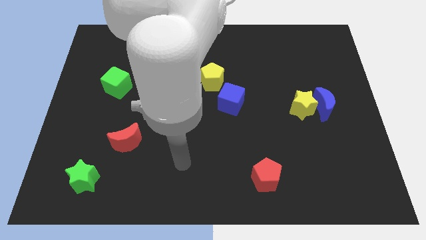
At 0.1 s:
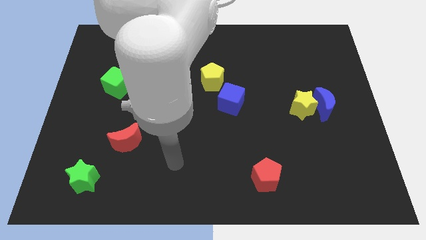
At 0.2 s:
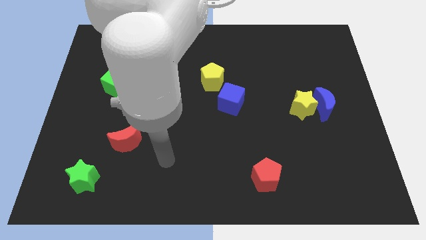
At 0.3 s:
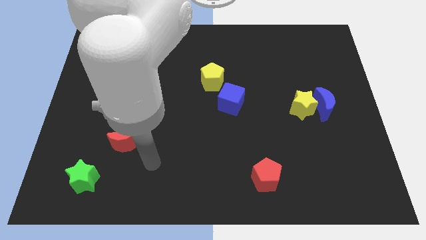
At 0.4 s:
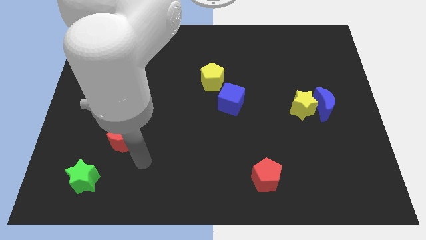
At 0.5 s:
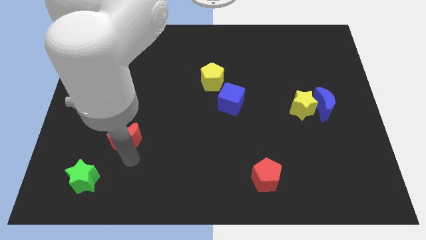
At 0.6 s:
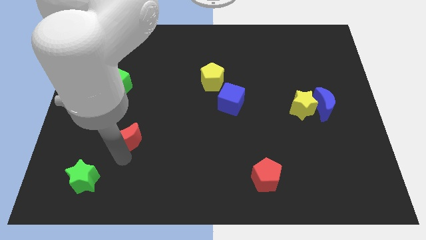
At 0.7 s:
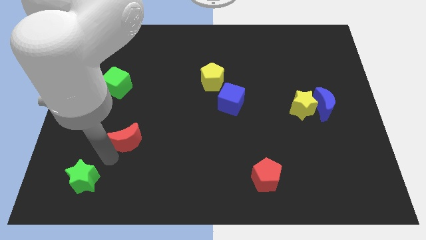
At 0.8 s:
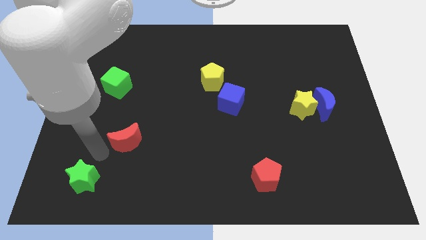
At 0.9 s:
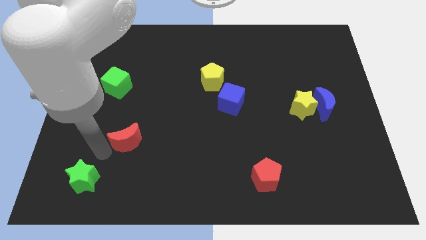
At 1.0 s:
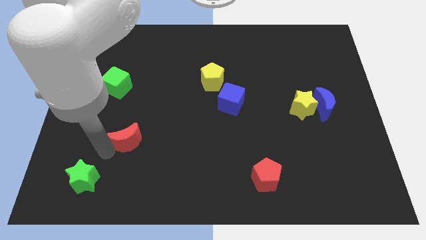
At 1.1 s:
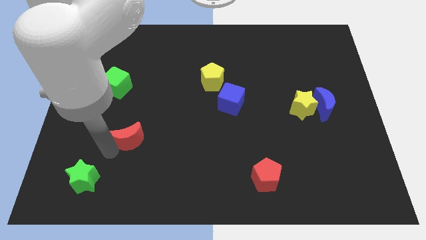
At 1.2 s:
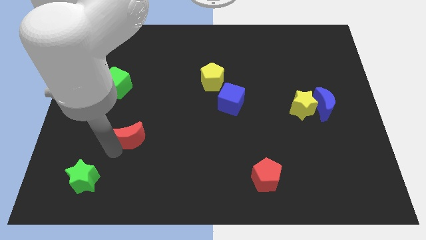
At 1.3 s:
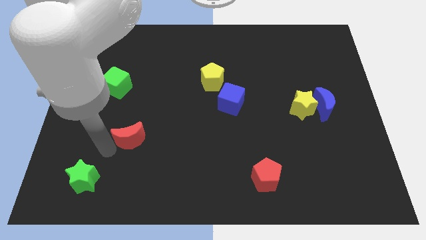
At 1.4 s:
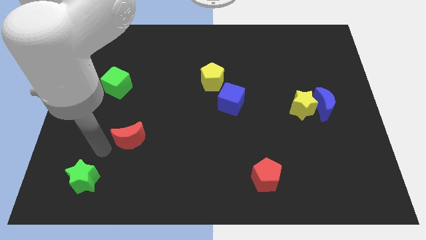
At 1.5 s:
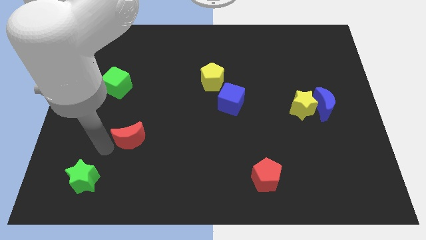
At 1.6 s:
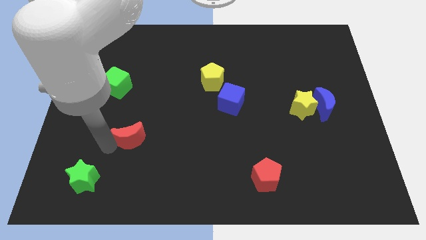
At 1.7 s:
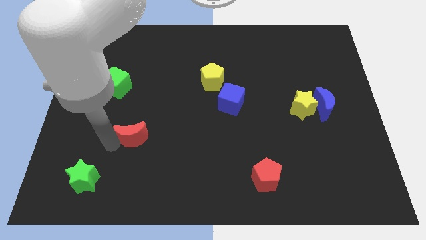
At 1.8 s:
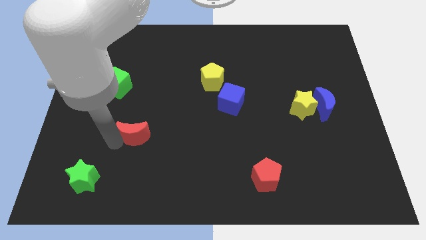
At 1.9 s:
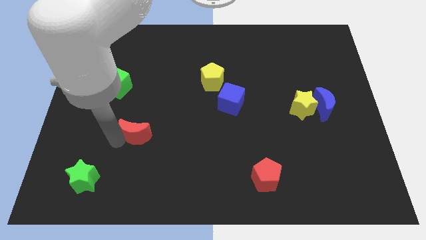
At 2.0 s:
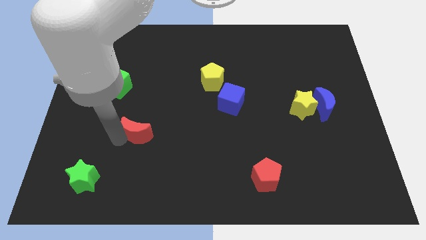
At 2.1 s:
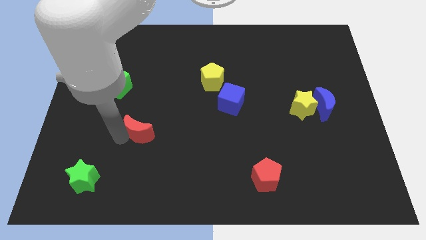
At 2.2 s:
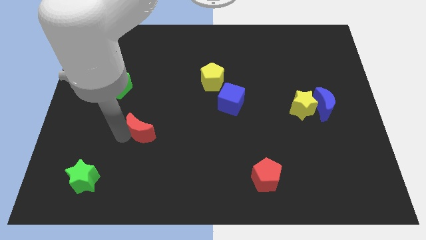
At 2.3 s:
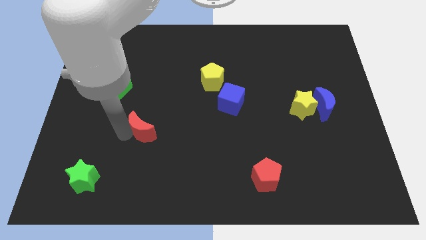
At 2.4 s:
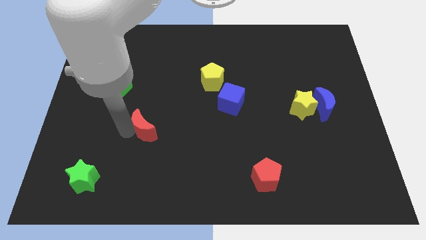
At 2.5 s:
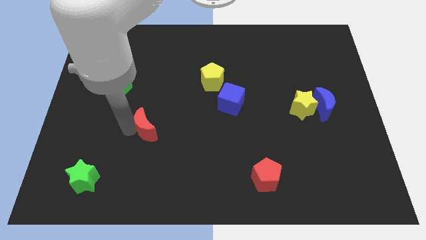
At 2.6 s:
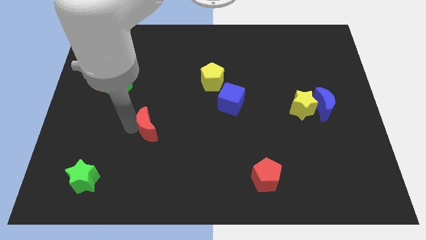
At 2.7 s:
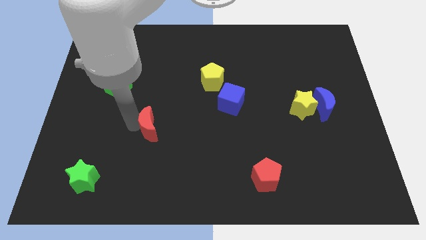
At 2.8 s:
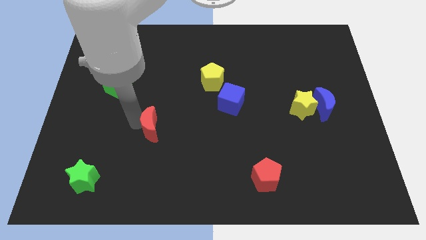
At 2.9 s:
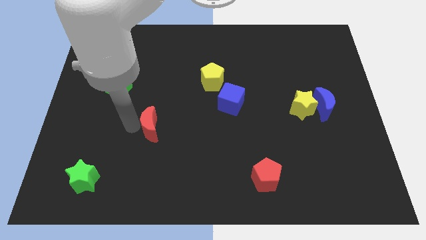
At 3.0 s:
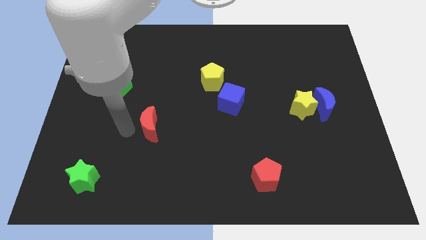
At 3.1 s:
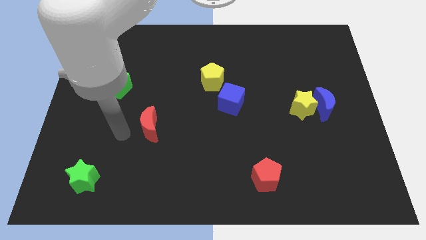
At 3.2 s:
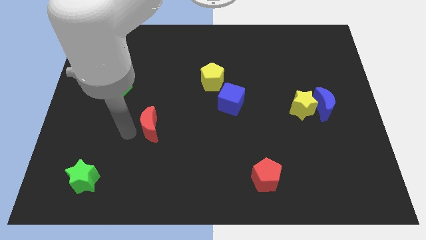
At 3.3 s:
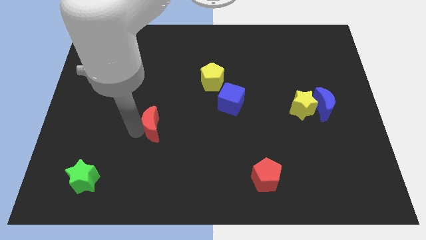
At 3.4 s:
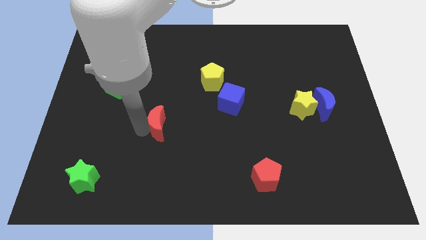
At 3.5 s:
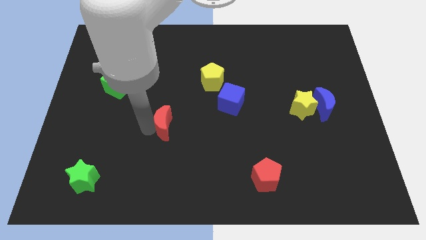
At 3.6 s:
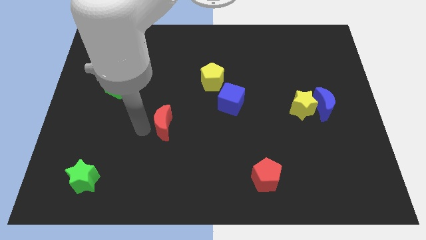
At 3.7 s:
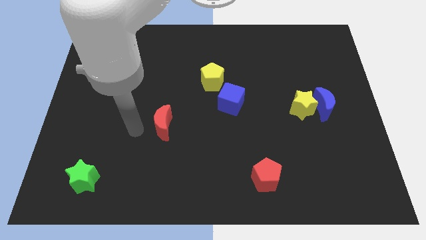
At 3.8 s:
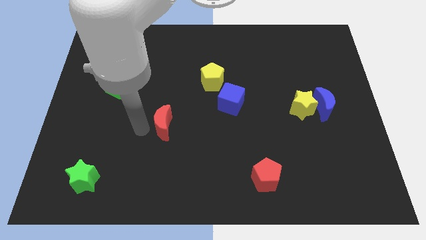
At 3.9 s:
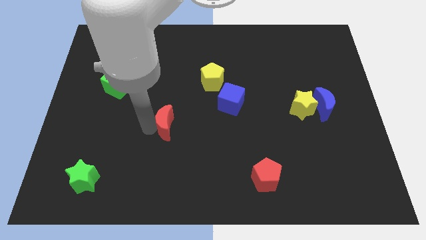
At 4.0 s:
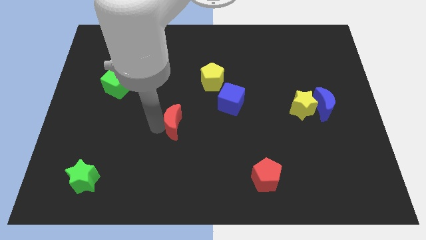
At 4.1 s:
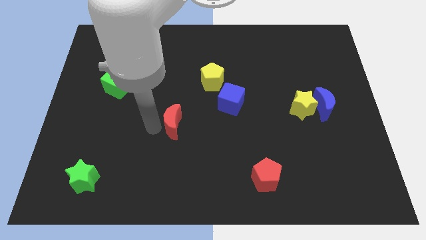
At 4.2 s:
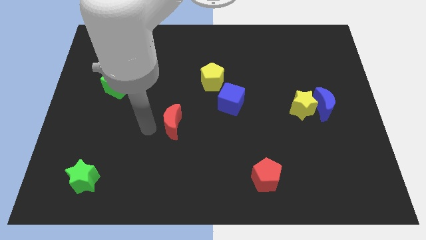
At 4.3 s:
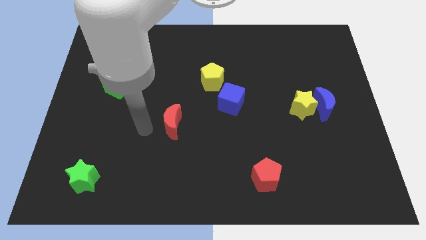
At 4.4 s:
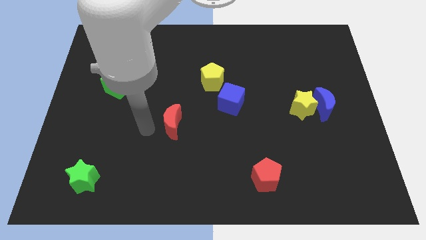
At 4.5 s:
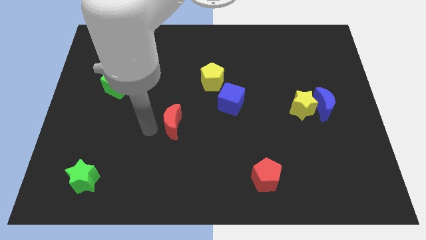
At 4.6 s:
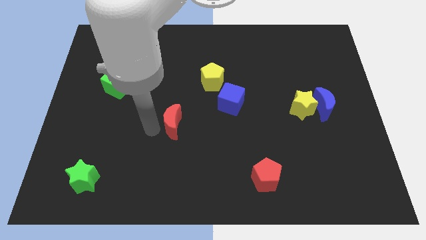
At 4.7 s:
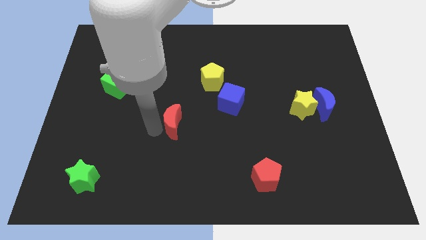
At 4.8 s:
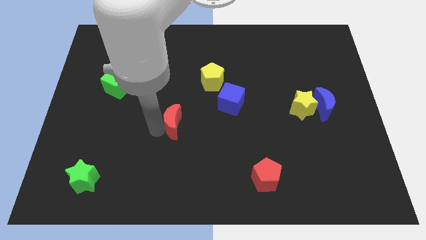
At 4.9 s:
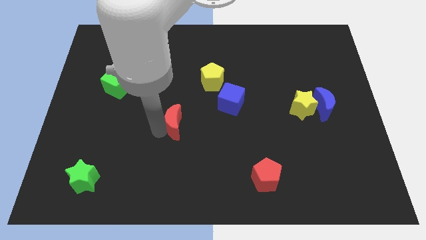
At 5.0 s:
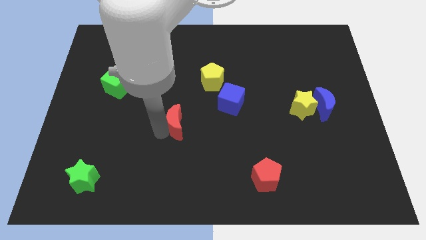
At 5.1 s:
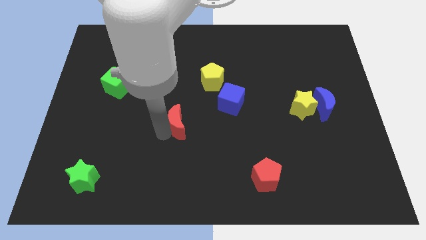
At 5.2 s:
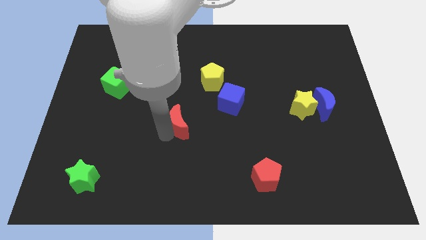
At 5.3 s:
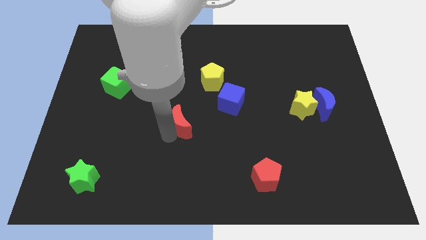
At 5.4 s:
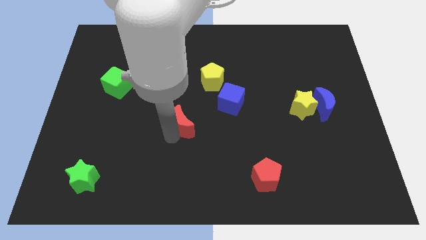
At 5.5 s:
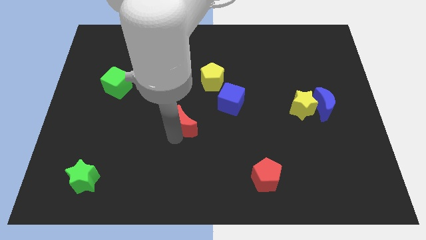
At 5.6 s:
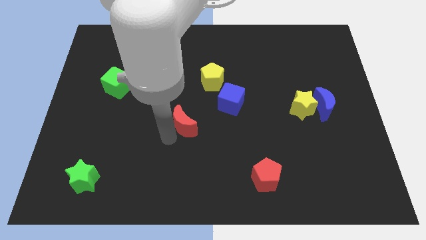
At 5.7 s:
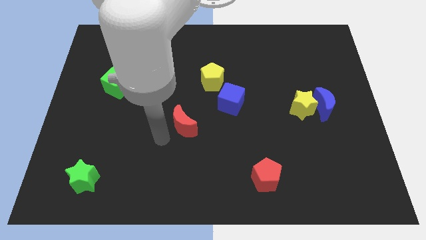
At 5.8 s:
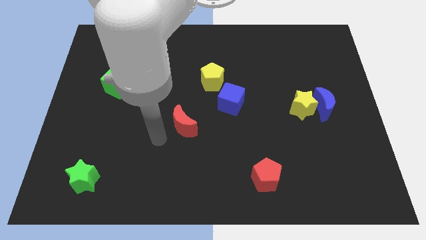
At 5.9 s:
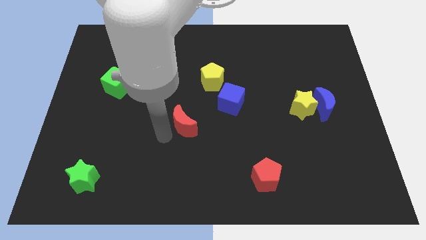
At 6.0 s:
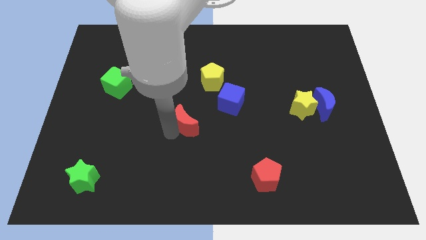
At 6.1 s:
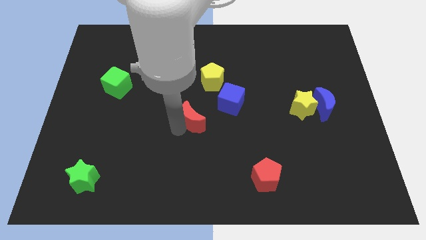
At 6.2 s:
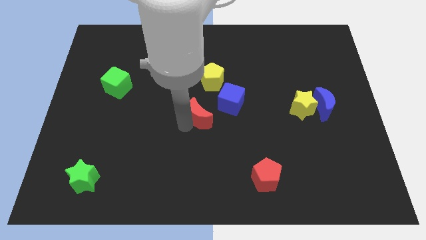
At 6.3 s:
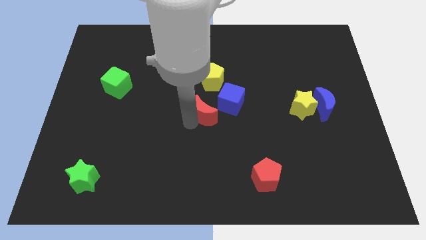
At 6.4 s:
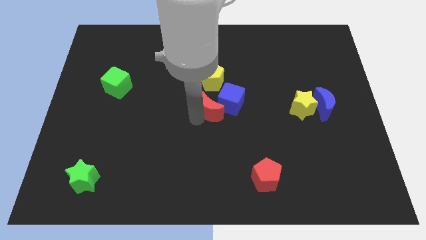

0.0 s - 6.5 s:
move the red moon close to the blue cube

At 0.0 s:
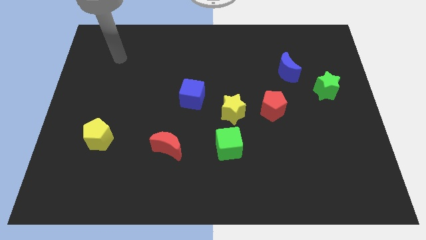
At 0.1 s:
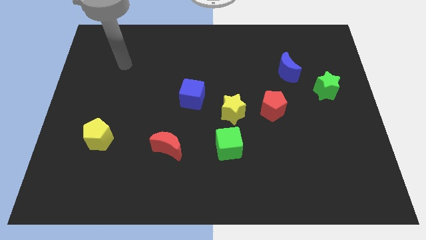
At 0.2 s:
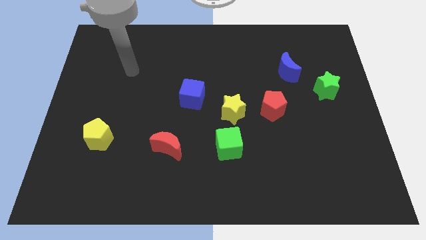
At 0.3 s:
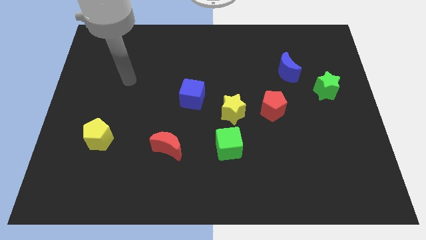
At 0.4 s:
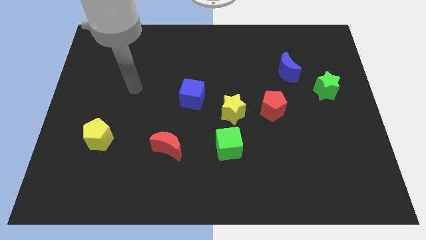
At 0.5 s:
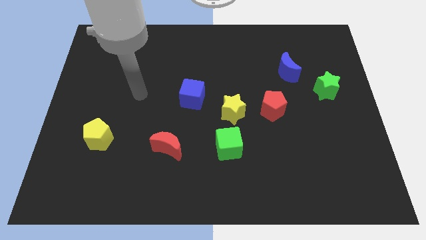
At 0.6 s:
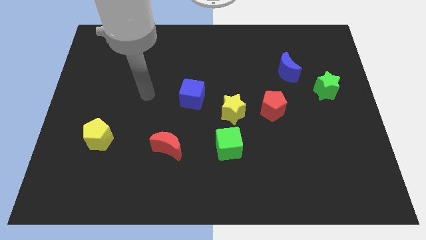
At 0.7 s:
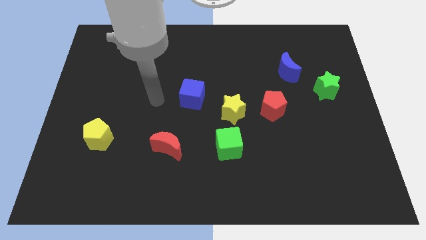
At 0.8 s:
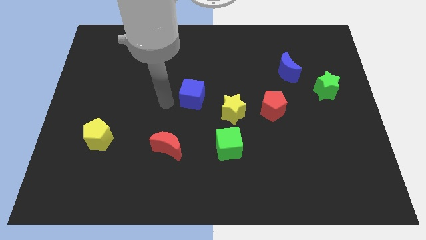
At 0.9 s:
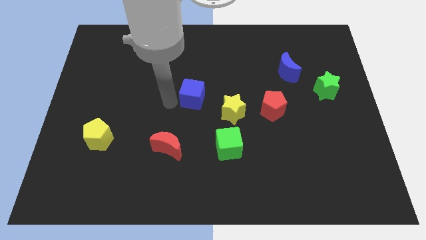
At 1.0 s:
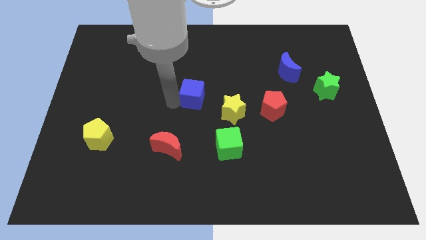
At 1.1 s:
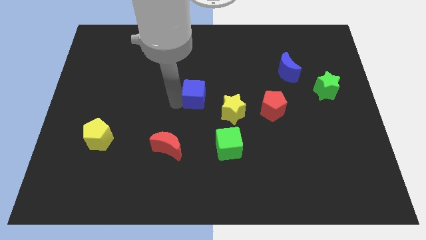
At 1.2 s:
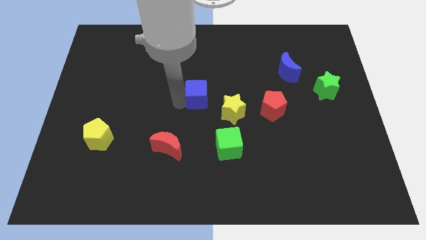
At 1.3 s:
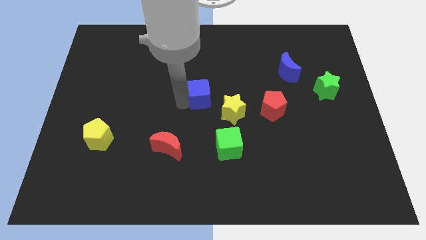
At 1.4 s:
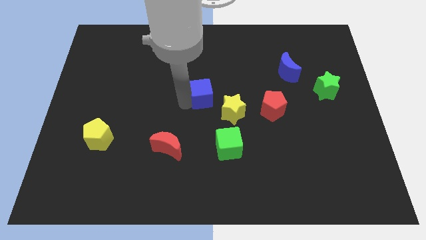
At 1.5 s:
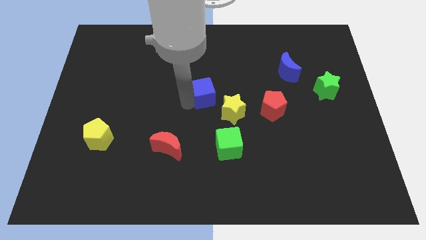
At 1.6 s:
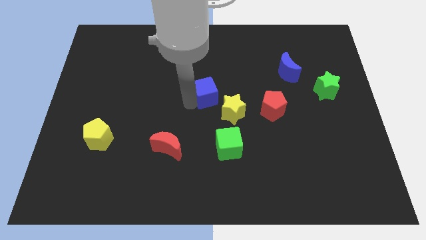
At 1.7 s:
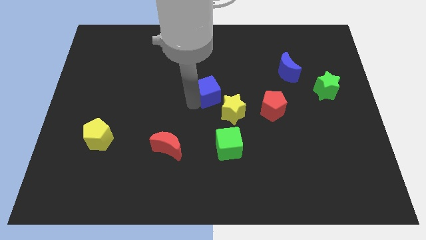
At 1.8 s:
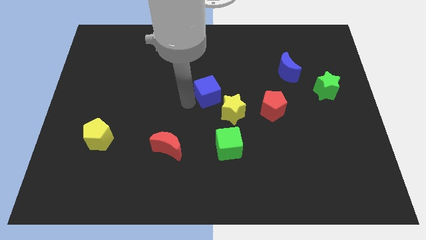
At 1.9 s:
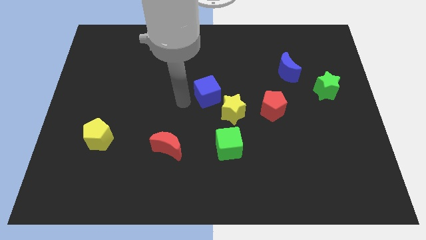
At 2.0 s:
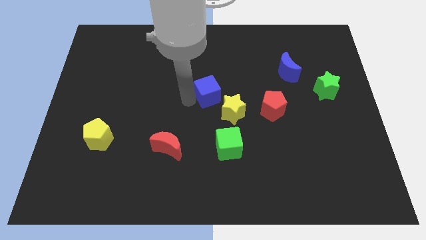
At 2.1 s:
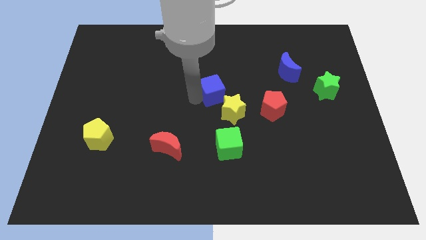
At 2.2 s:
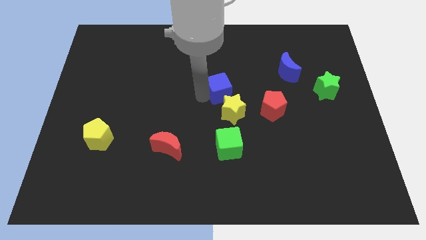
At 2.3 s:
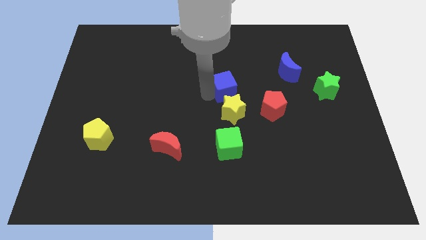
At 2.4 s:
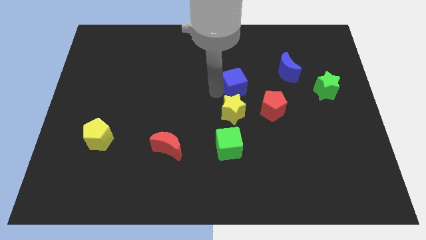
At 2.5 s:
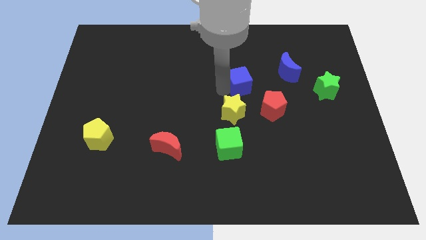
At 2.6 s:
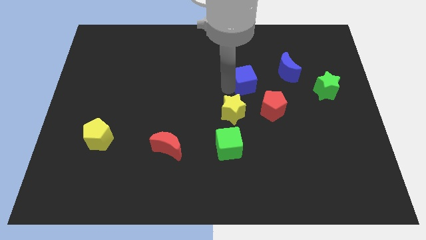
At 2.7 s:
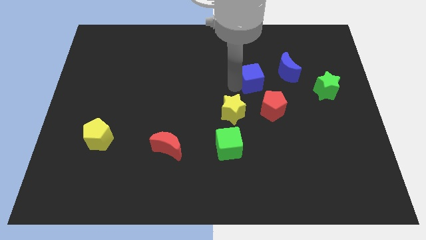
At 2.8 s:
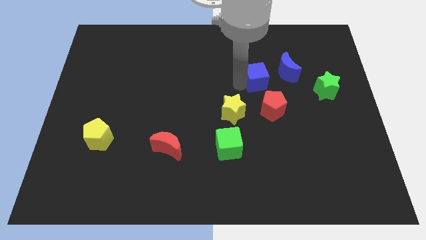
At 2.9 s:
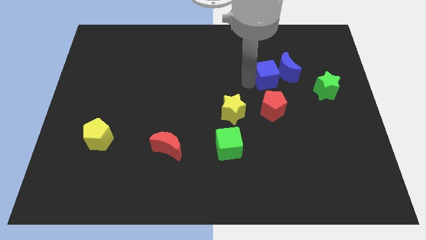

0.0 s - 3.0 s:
slide the blue cube towards the blue moon
